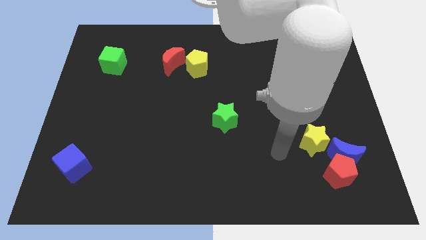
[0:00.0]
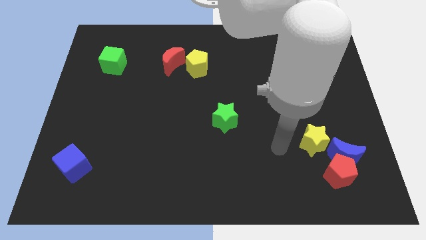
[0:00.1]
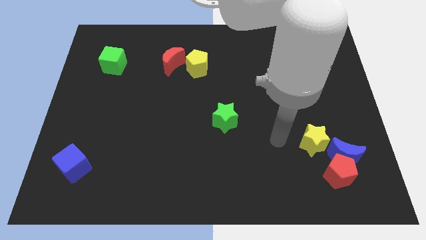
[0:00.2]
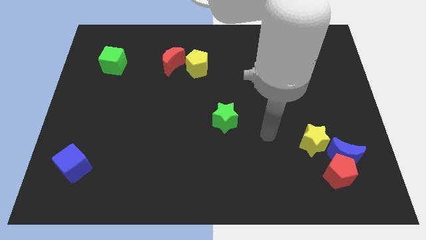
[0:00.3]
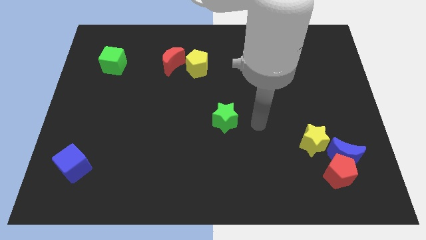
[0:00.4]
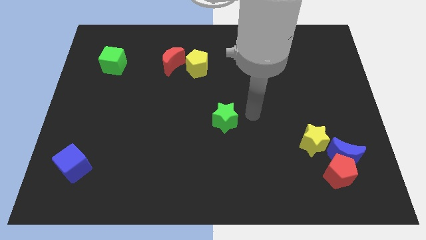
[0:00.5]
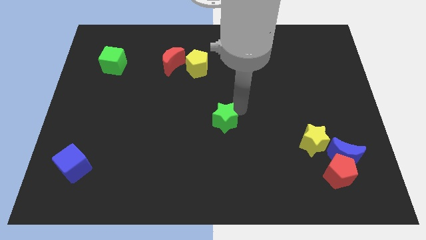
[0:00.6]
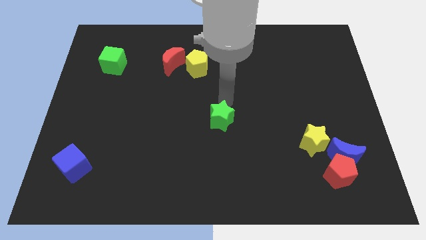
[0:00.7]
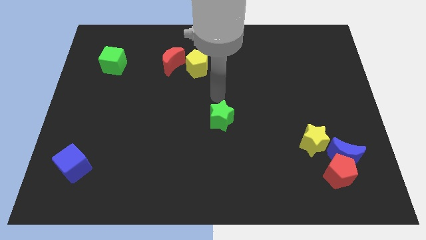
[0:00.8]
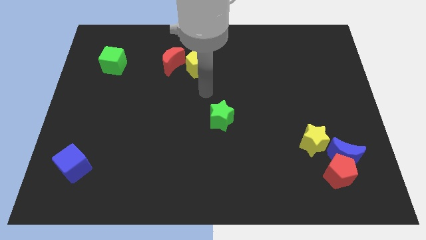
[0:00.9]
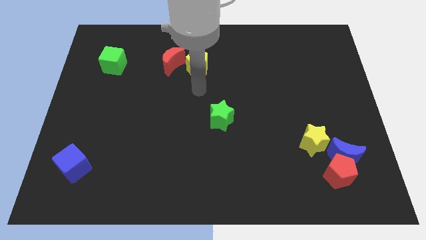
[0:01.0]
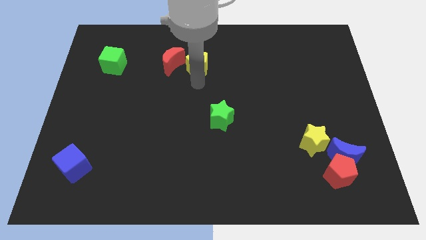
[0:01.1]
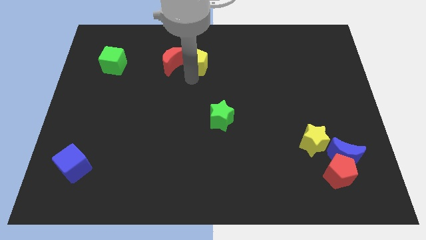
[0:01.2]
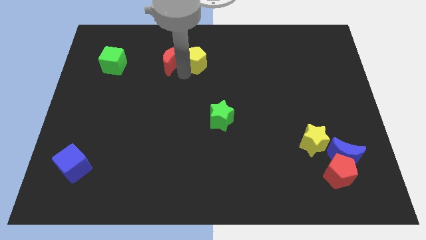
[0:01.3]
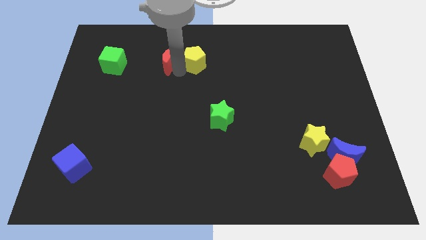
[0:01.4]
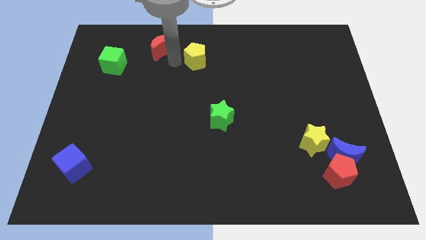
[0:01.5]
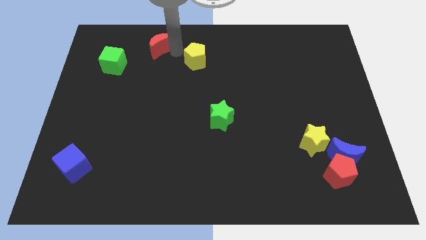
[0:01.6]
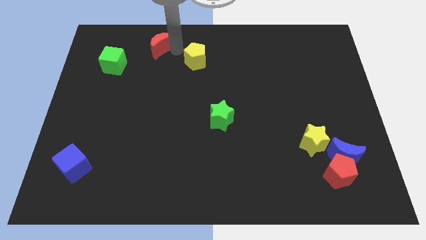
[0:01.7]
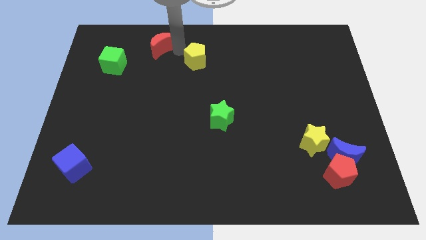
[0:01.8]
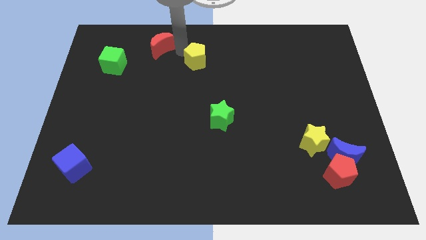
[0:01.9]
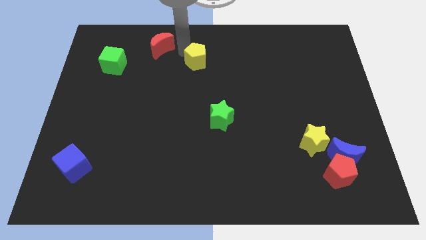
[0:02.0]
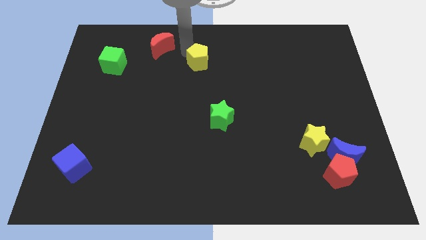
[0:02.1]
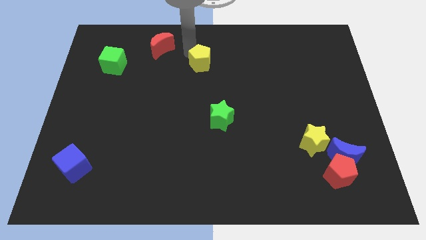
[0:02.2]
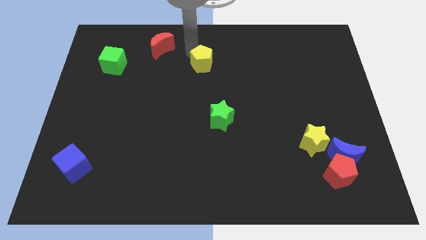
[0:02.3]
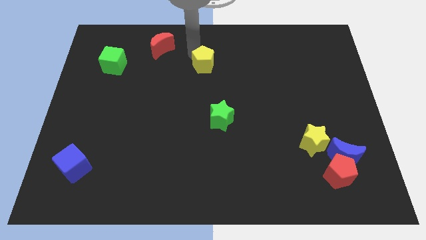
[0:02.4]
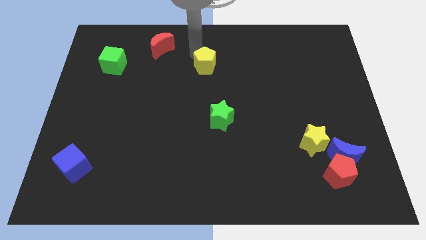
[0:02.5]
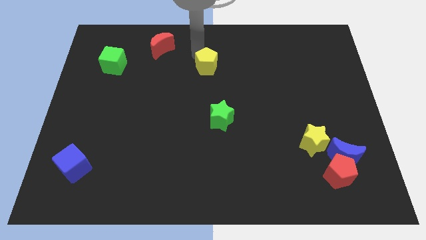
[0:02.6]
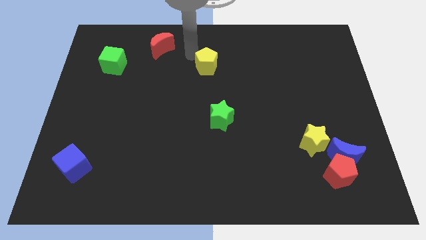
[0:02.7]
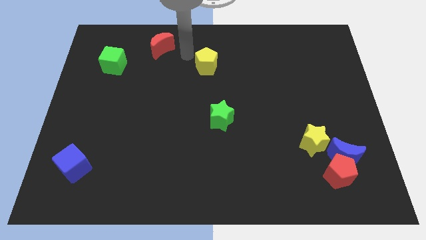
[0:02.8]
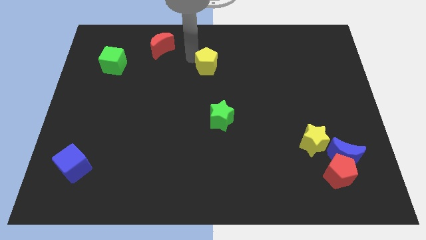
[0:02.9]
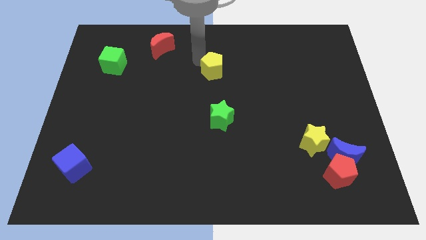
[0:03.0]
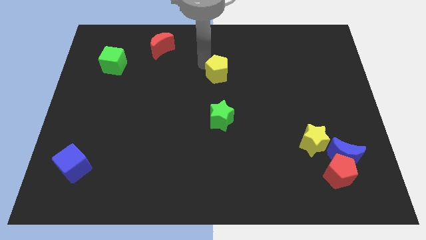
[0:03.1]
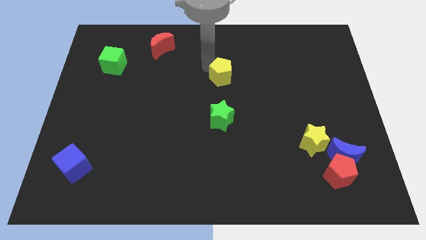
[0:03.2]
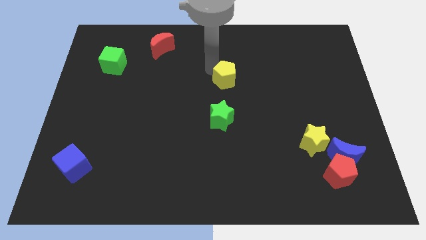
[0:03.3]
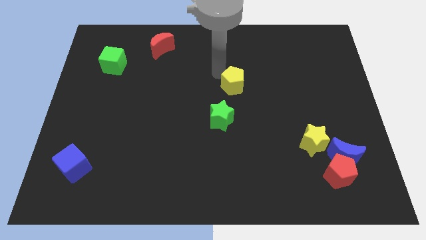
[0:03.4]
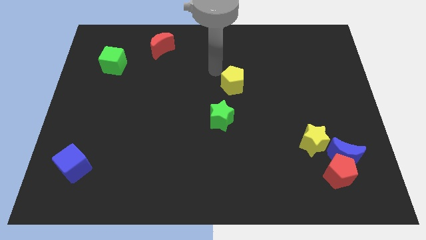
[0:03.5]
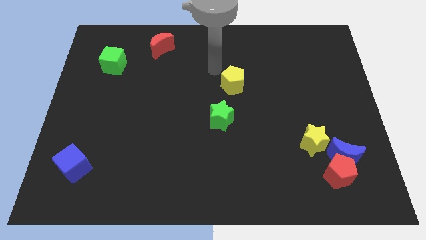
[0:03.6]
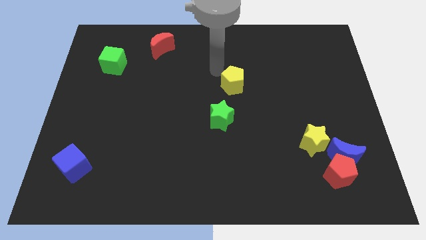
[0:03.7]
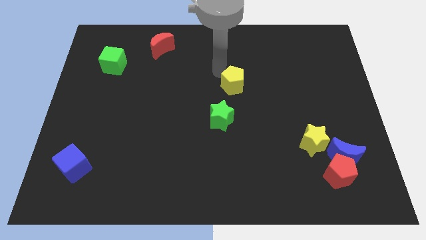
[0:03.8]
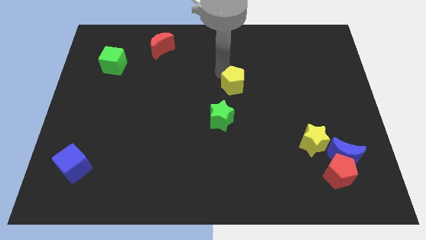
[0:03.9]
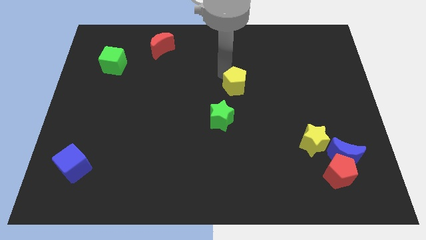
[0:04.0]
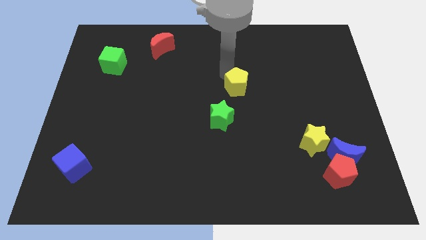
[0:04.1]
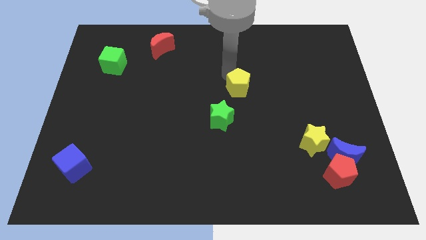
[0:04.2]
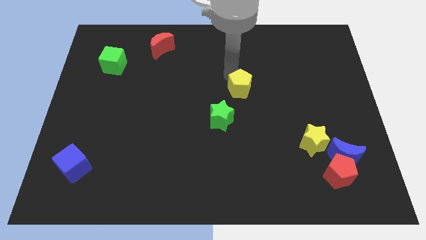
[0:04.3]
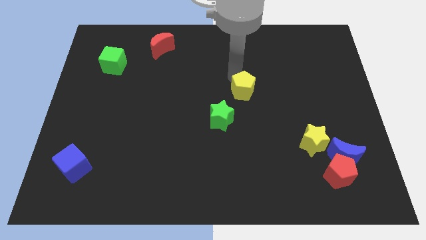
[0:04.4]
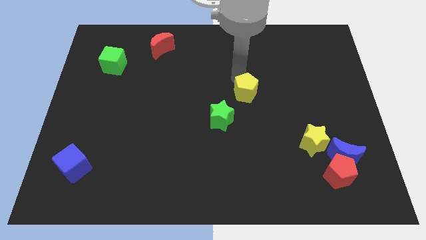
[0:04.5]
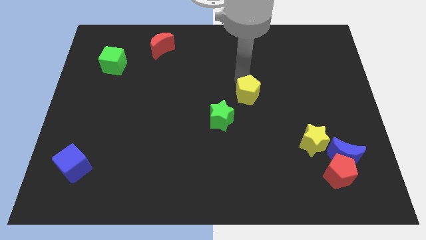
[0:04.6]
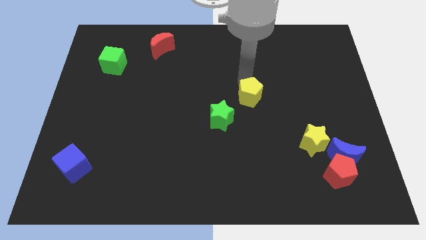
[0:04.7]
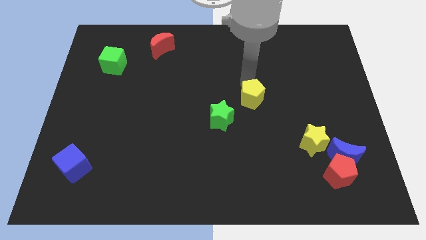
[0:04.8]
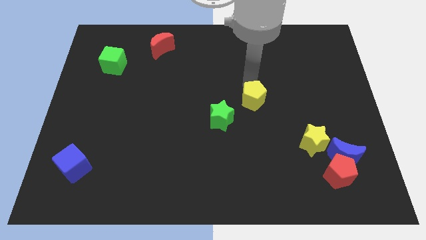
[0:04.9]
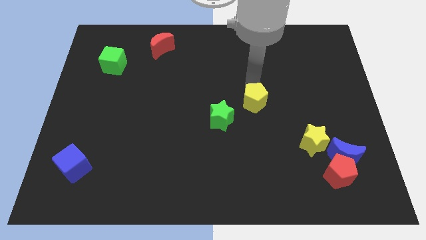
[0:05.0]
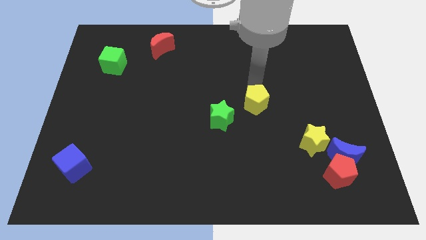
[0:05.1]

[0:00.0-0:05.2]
put the yellow pentagon right of the green star

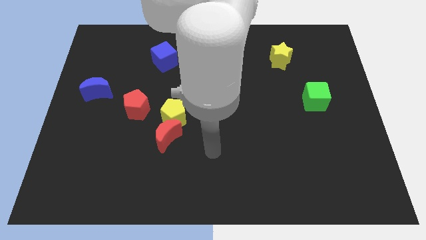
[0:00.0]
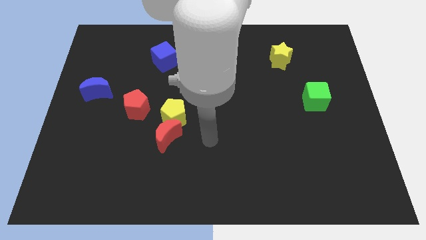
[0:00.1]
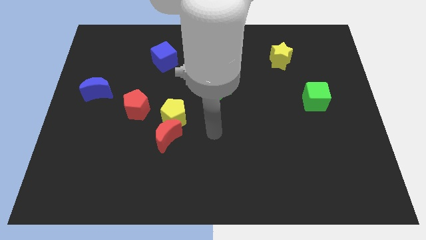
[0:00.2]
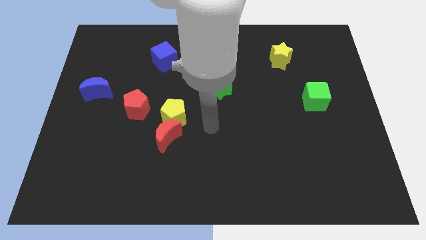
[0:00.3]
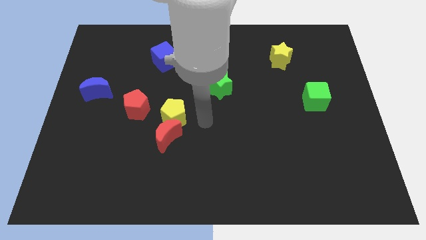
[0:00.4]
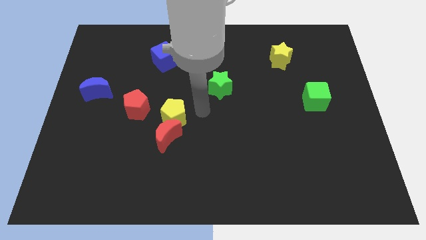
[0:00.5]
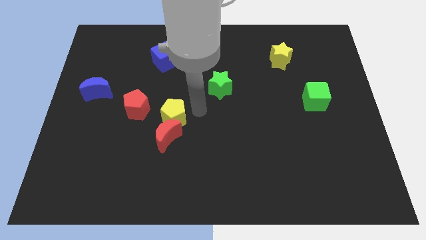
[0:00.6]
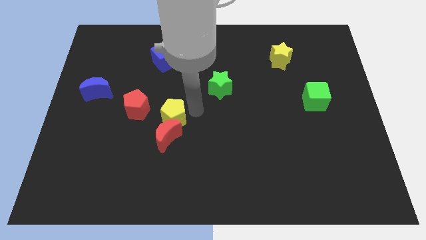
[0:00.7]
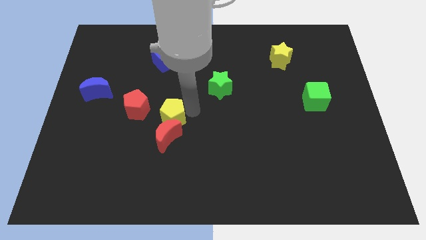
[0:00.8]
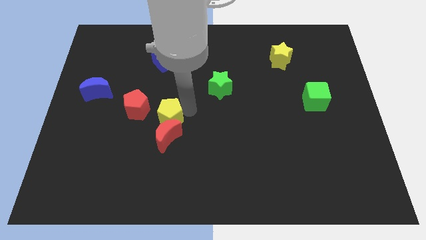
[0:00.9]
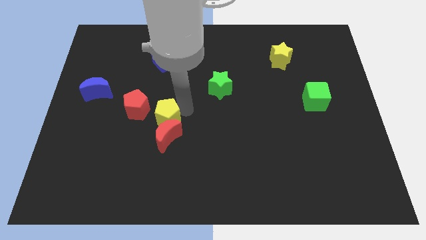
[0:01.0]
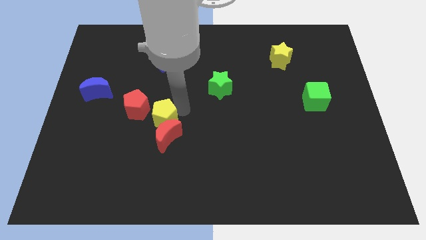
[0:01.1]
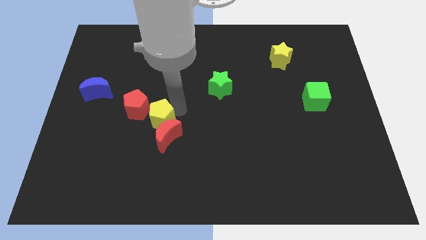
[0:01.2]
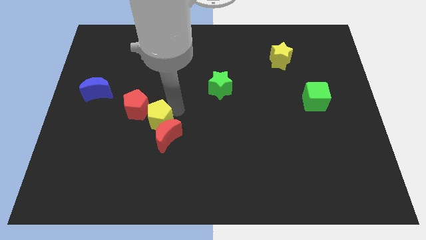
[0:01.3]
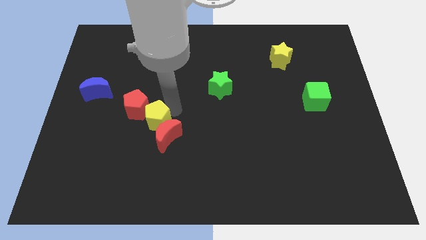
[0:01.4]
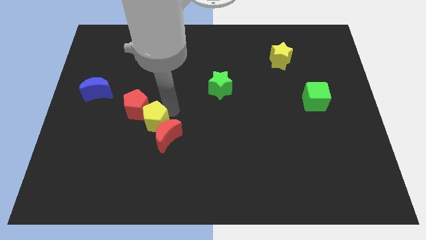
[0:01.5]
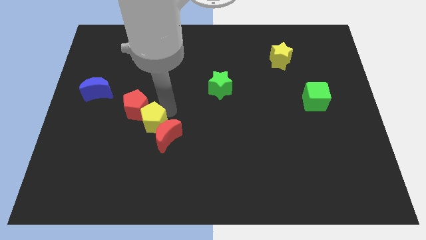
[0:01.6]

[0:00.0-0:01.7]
put the yellow pentagon to the bottom side of the red pentagon
